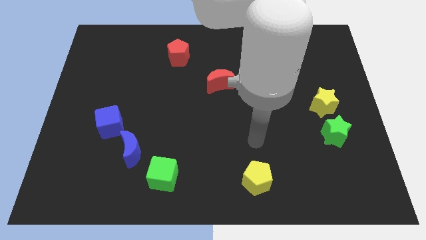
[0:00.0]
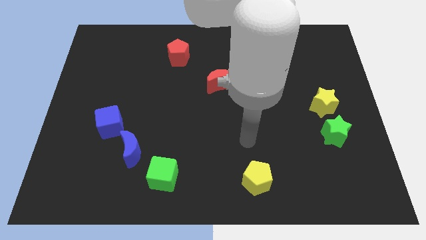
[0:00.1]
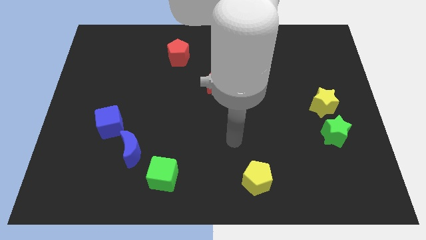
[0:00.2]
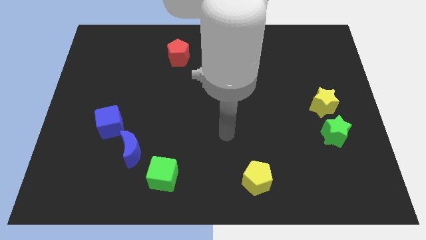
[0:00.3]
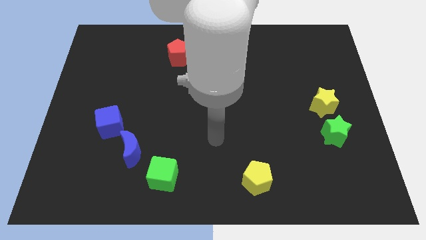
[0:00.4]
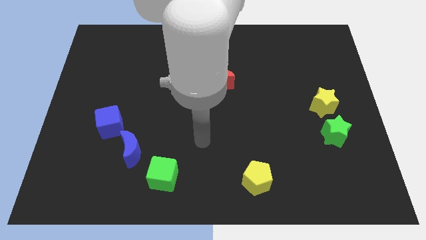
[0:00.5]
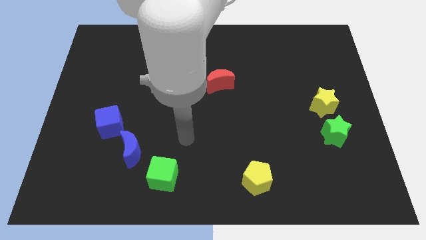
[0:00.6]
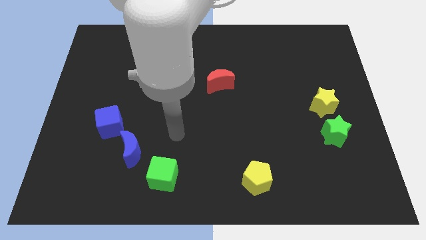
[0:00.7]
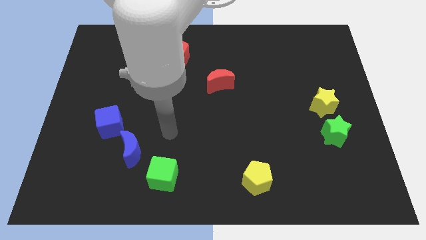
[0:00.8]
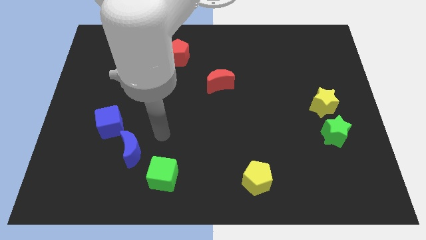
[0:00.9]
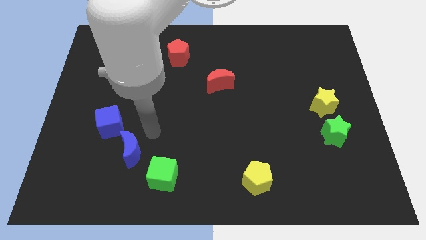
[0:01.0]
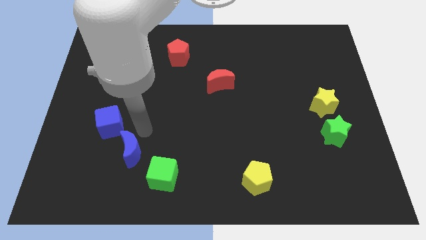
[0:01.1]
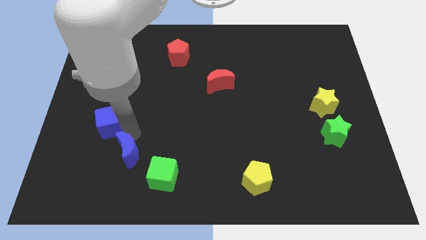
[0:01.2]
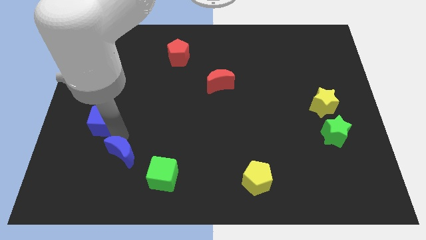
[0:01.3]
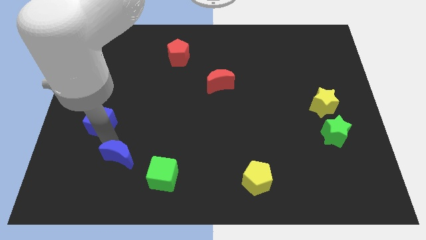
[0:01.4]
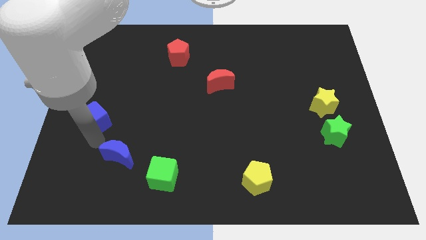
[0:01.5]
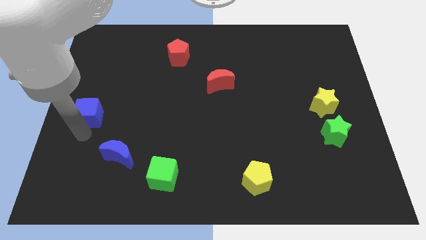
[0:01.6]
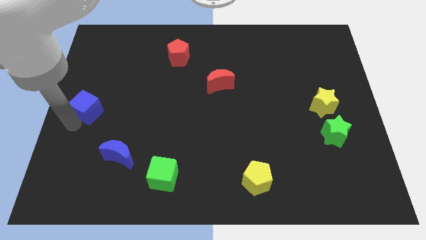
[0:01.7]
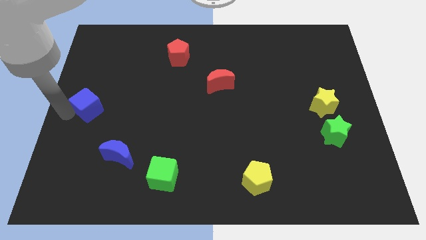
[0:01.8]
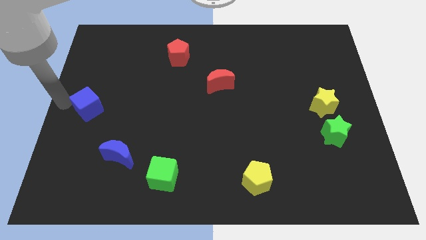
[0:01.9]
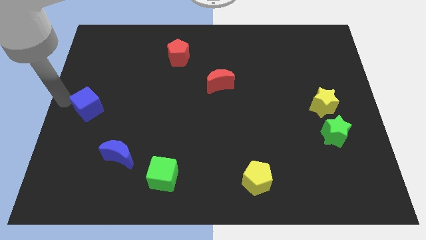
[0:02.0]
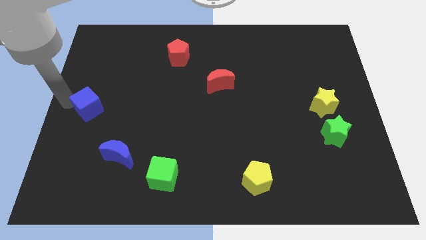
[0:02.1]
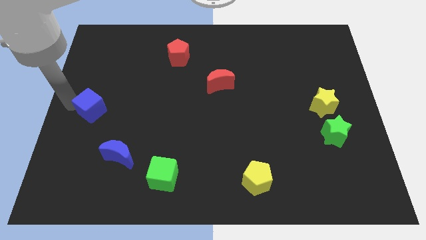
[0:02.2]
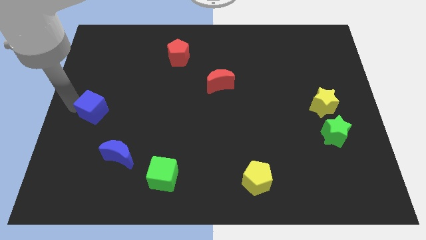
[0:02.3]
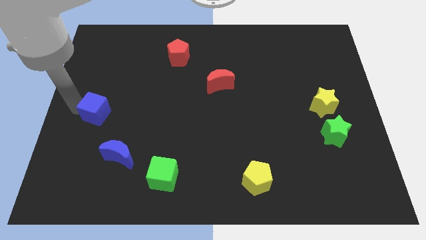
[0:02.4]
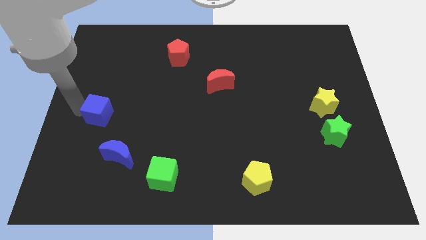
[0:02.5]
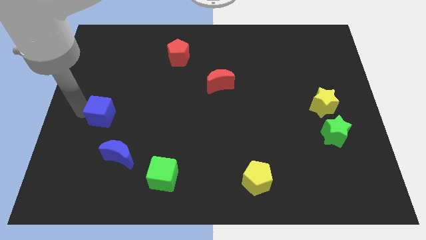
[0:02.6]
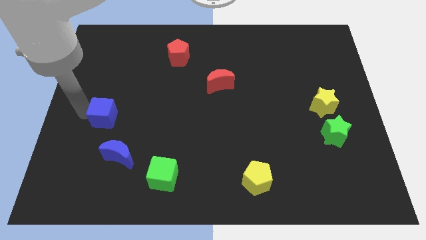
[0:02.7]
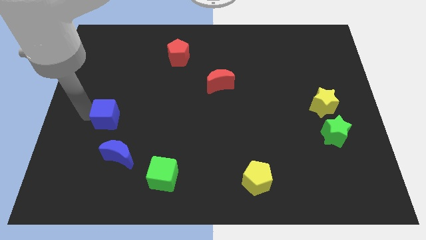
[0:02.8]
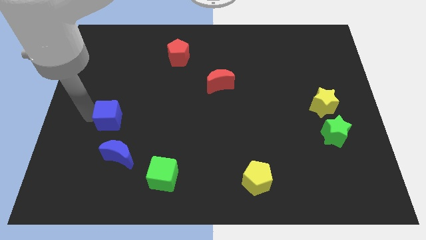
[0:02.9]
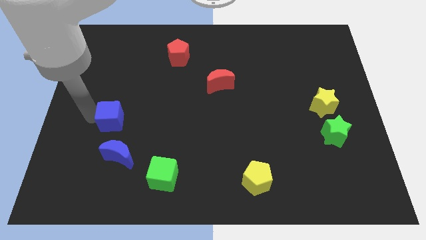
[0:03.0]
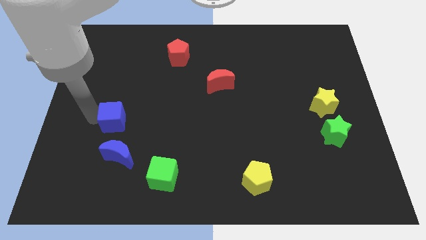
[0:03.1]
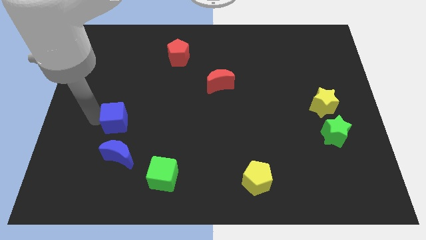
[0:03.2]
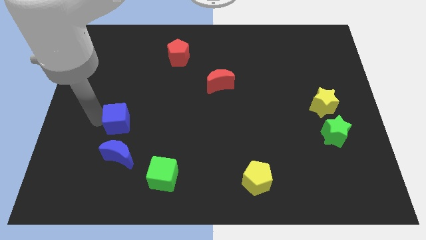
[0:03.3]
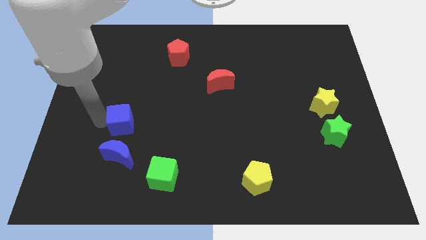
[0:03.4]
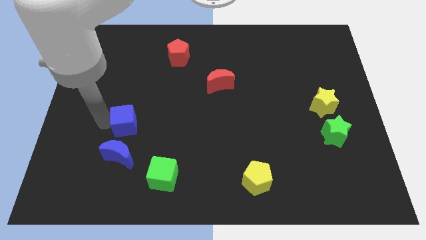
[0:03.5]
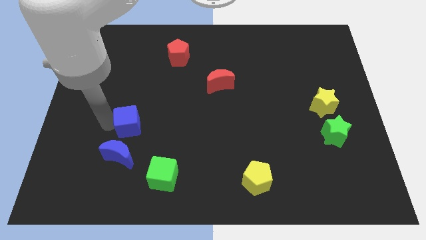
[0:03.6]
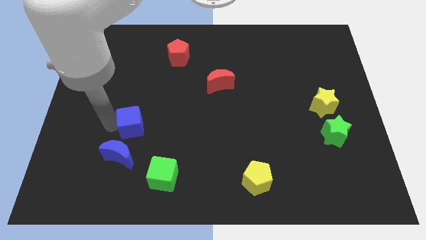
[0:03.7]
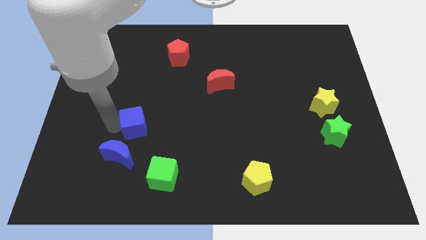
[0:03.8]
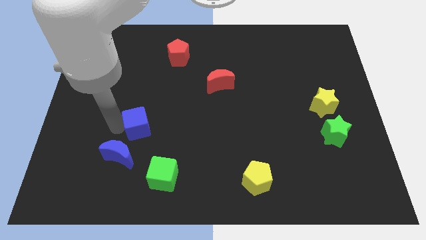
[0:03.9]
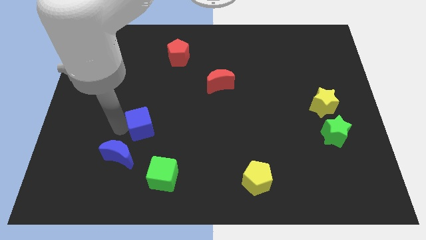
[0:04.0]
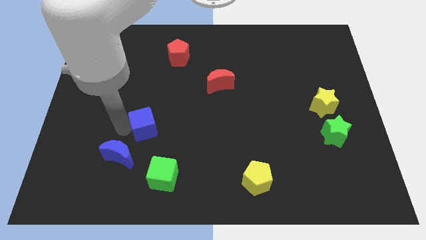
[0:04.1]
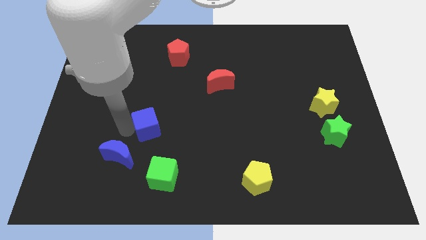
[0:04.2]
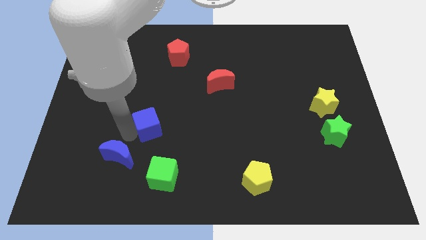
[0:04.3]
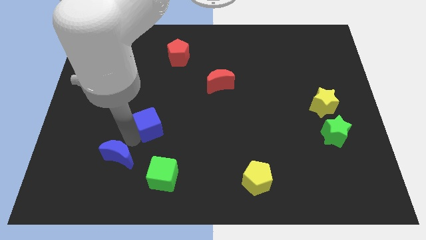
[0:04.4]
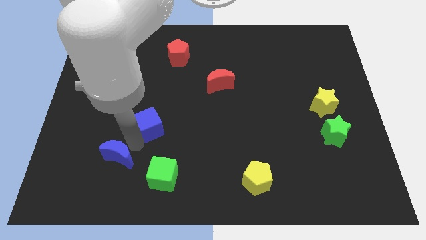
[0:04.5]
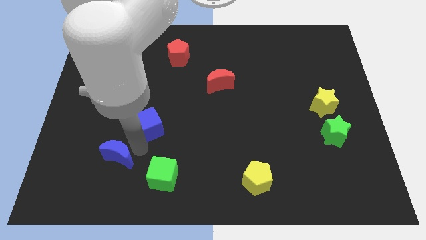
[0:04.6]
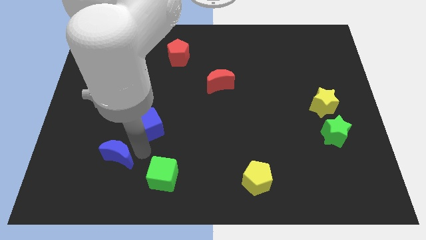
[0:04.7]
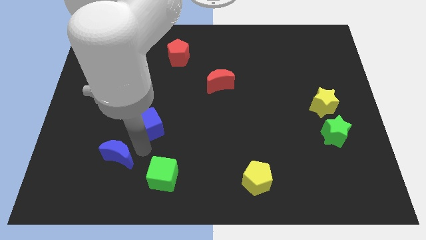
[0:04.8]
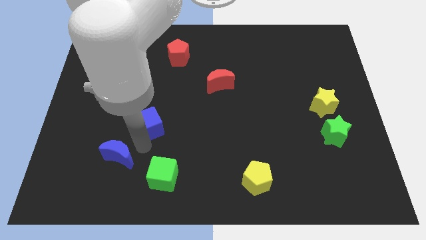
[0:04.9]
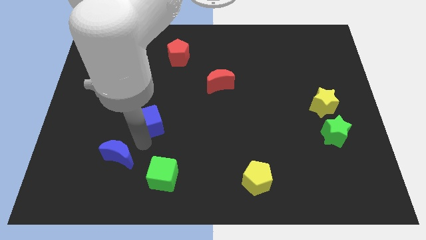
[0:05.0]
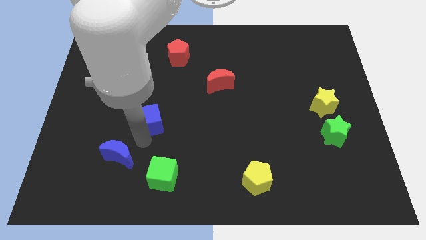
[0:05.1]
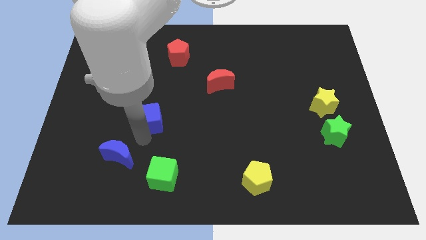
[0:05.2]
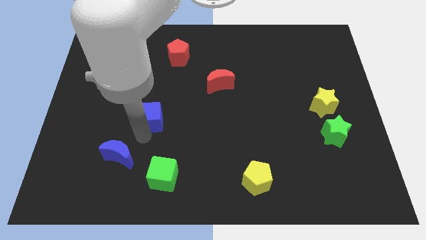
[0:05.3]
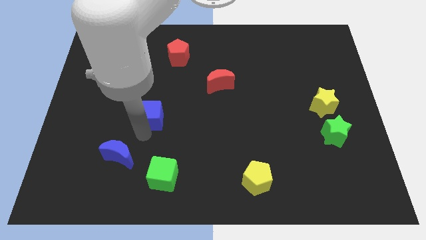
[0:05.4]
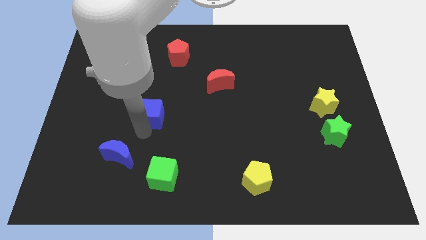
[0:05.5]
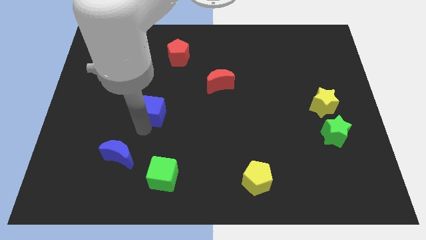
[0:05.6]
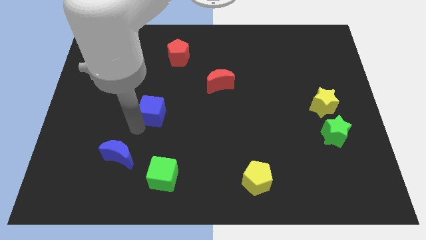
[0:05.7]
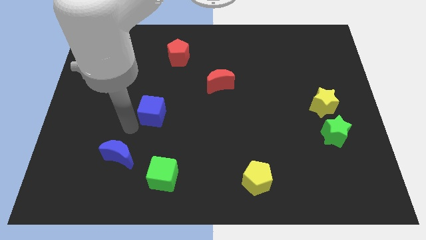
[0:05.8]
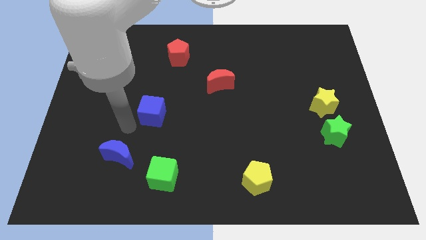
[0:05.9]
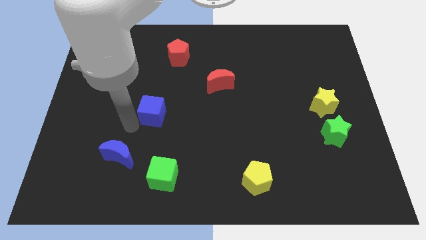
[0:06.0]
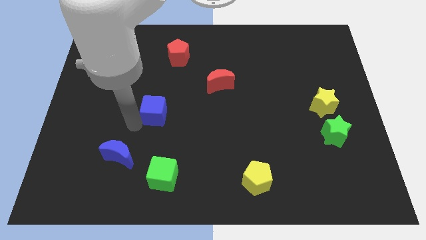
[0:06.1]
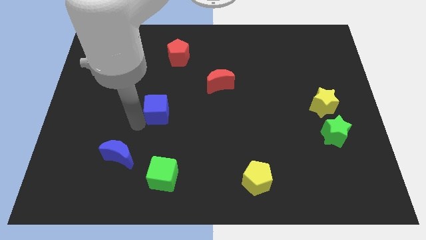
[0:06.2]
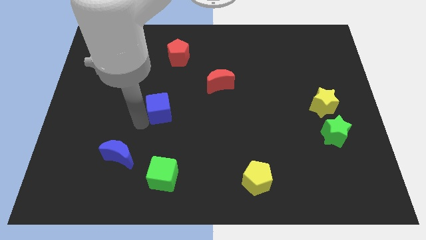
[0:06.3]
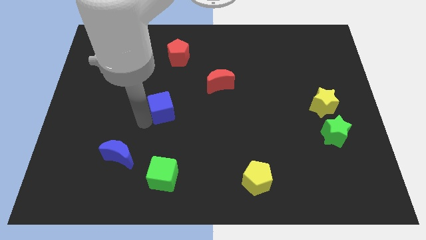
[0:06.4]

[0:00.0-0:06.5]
put the blue cube to the middle

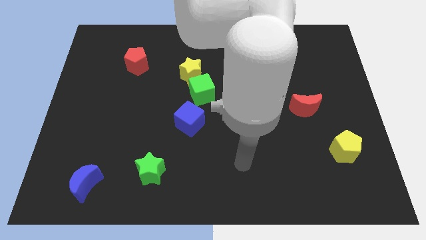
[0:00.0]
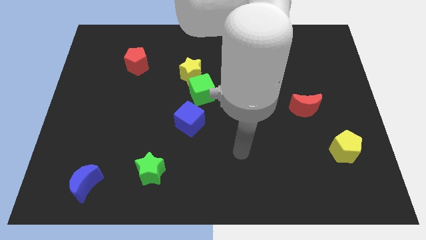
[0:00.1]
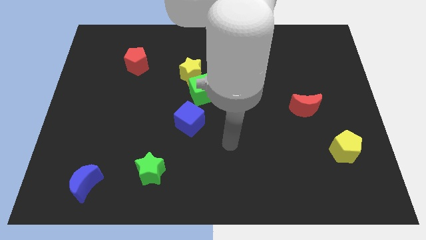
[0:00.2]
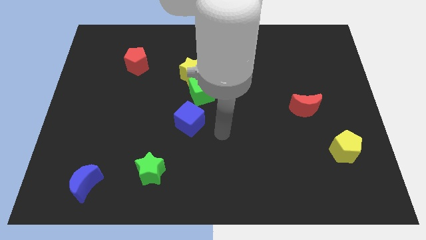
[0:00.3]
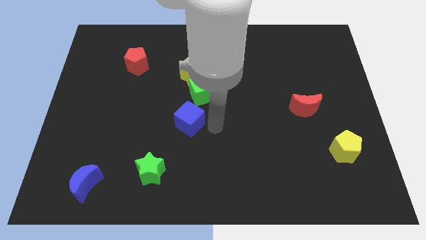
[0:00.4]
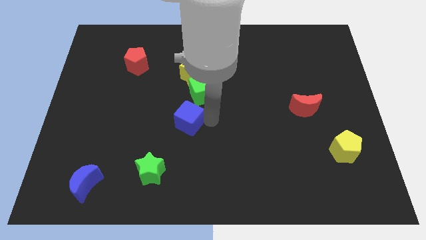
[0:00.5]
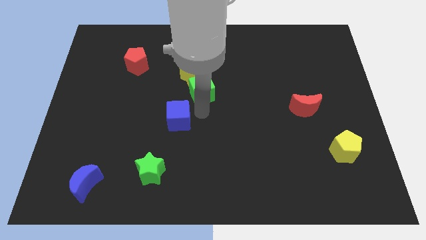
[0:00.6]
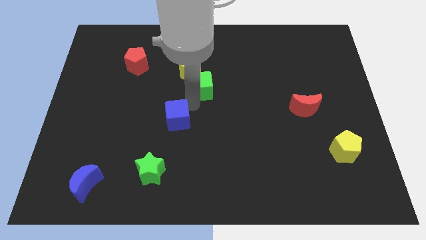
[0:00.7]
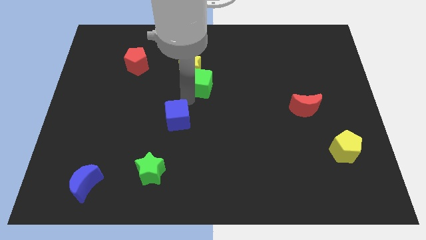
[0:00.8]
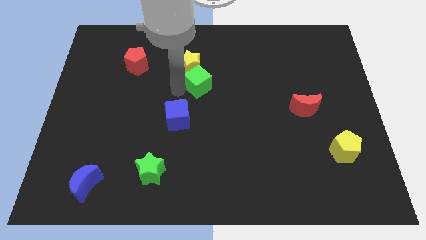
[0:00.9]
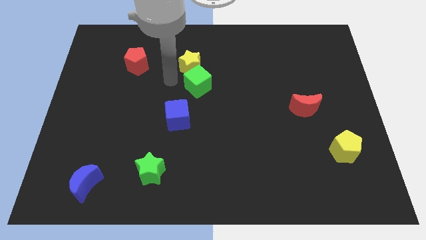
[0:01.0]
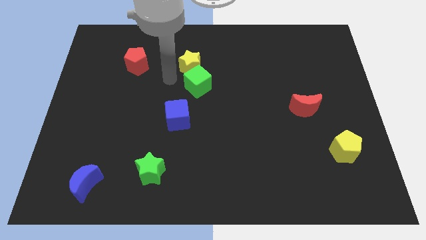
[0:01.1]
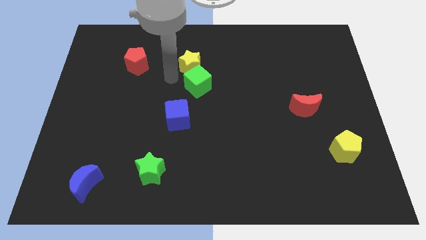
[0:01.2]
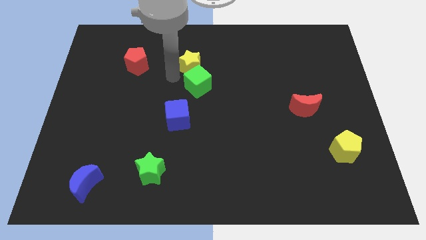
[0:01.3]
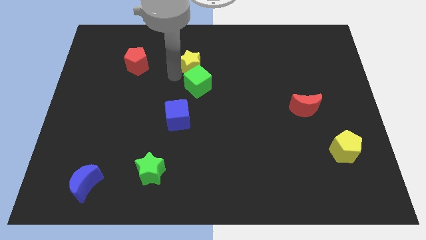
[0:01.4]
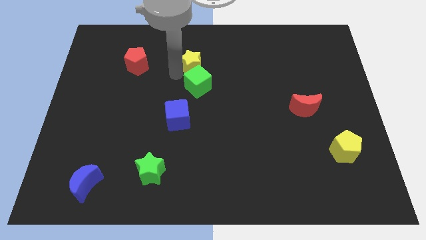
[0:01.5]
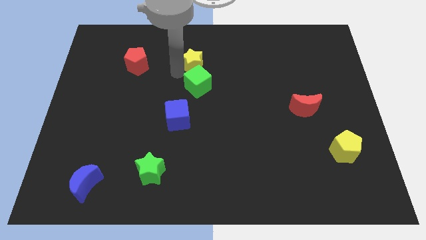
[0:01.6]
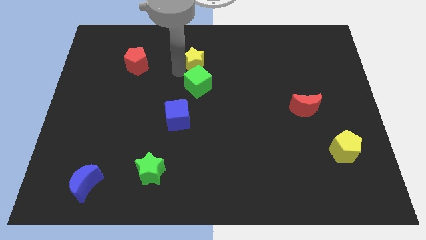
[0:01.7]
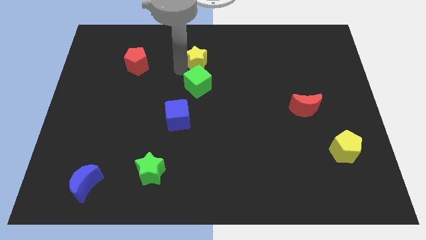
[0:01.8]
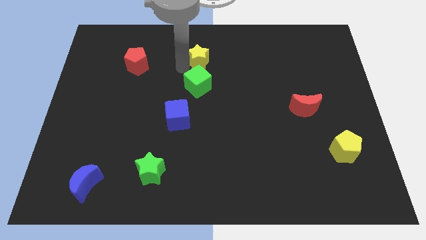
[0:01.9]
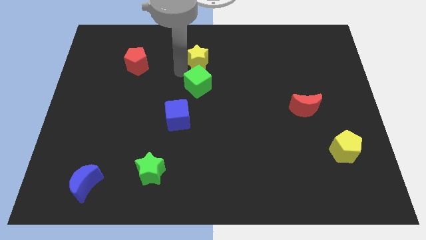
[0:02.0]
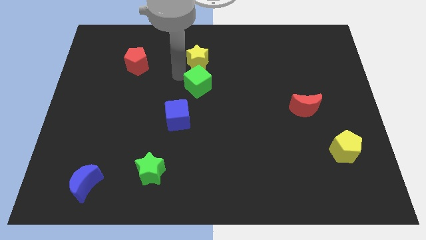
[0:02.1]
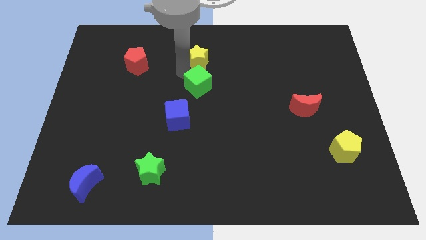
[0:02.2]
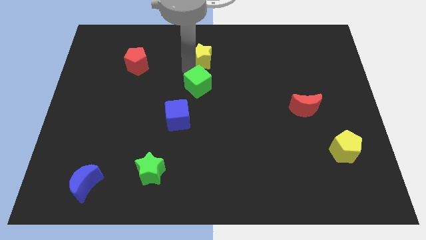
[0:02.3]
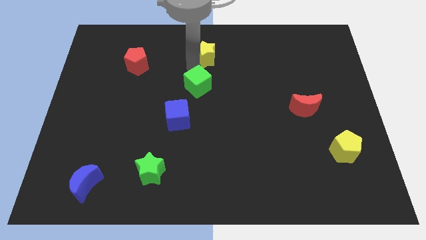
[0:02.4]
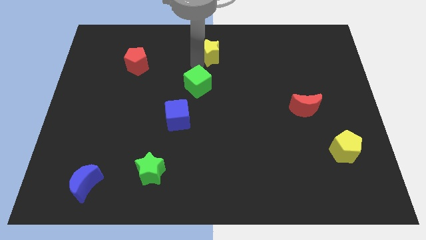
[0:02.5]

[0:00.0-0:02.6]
put the yellow star to the towards your base
